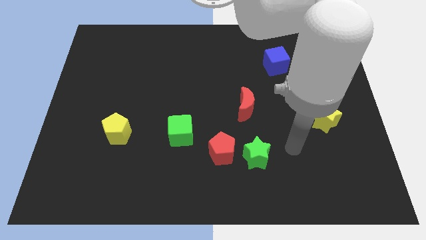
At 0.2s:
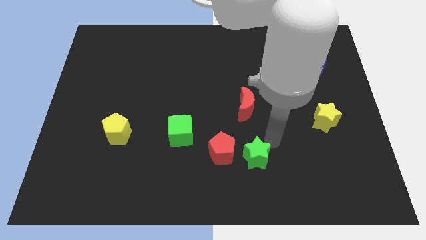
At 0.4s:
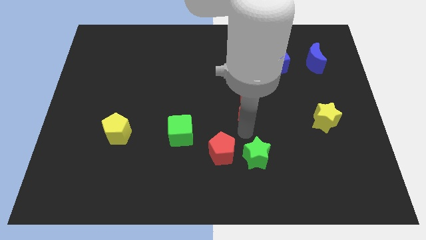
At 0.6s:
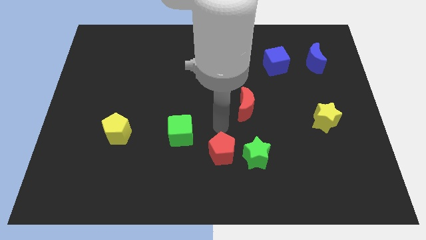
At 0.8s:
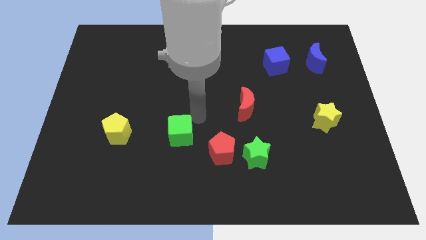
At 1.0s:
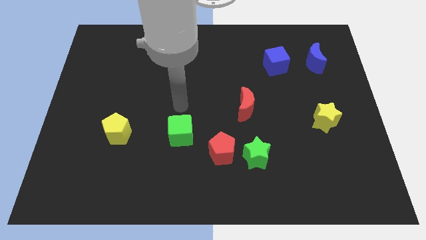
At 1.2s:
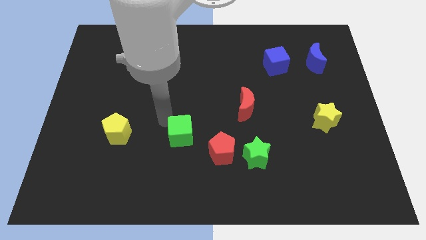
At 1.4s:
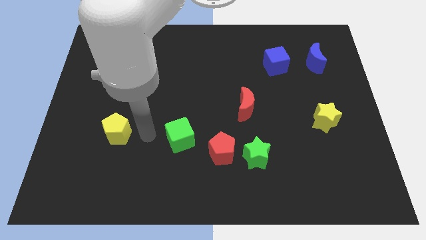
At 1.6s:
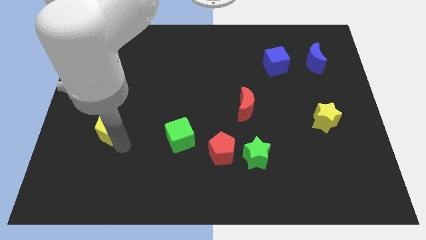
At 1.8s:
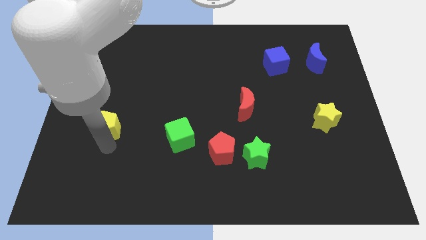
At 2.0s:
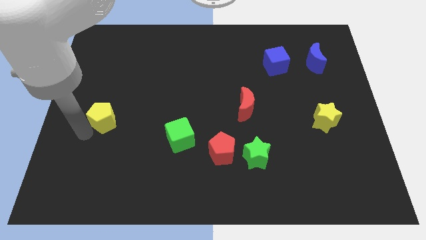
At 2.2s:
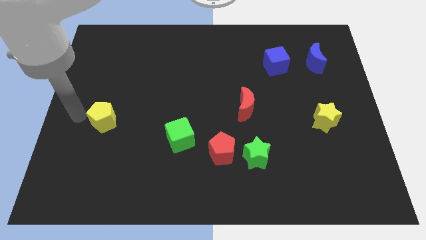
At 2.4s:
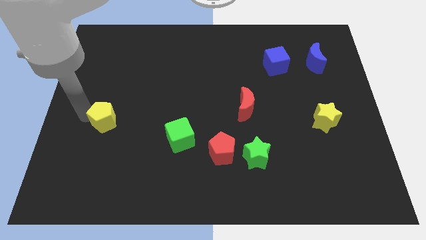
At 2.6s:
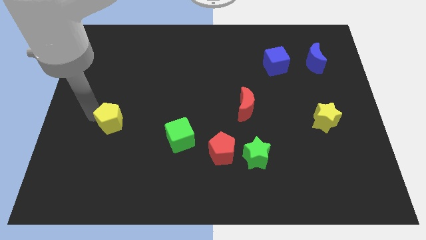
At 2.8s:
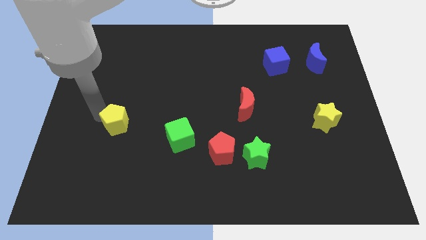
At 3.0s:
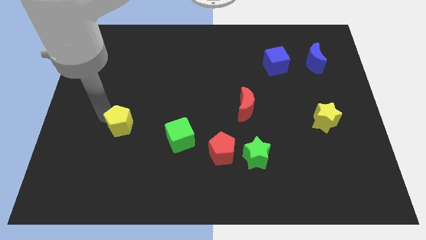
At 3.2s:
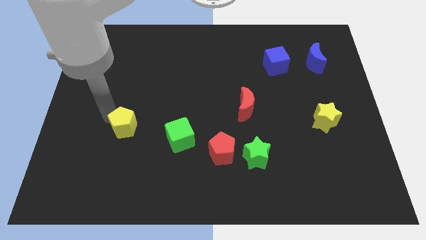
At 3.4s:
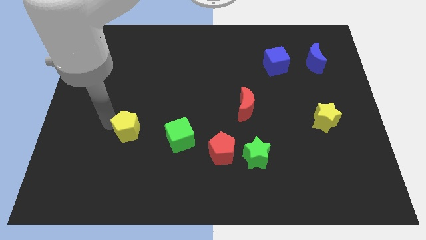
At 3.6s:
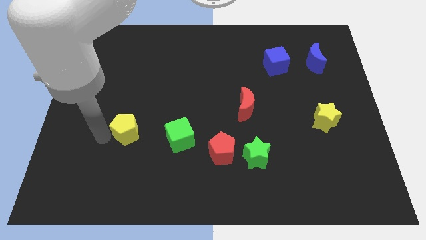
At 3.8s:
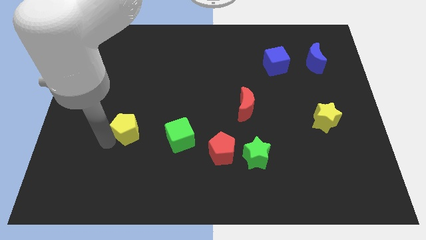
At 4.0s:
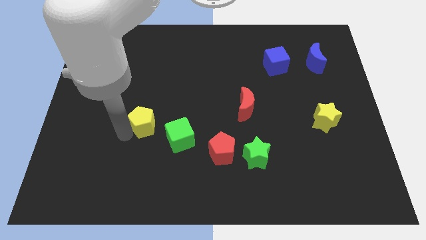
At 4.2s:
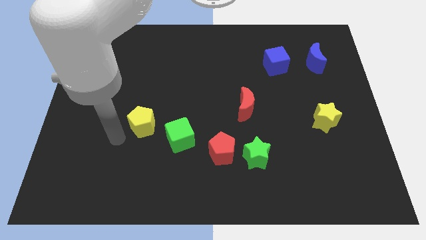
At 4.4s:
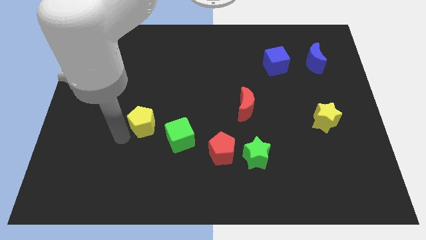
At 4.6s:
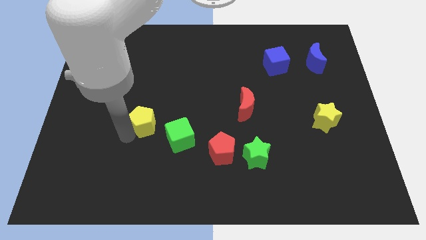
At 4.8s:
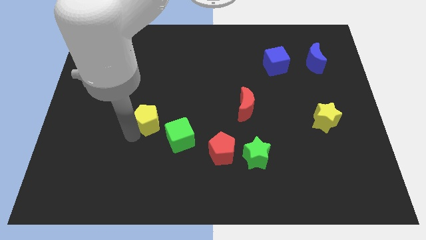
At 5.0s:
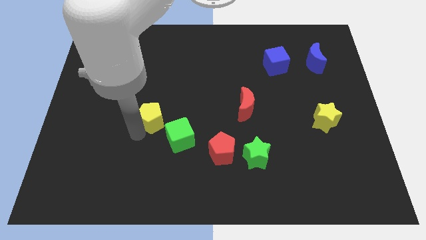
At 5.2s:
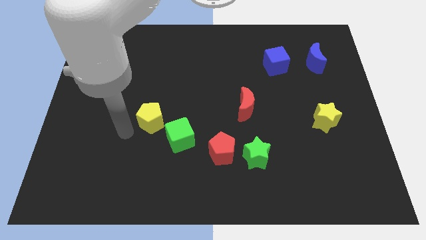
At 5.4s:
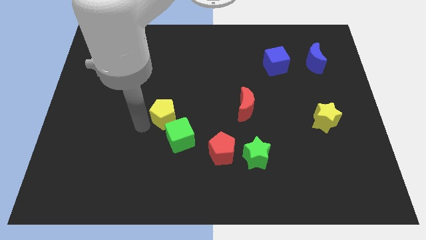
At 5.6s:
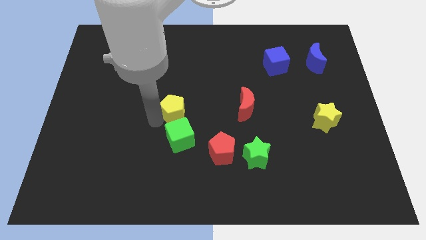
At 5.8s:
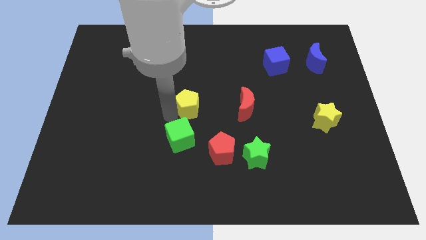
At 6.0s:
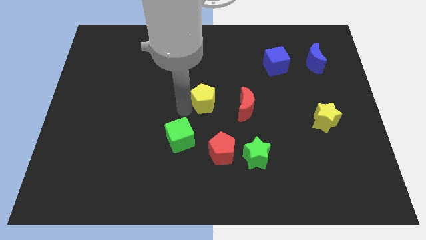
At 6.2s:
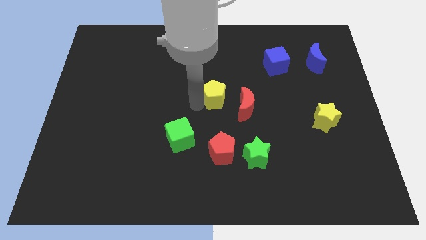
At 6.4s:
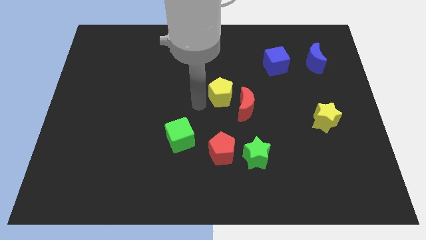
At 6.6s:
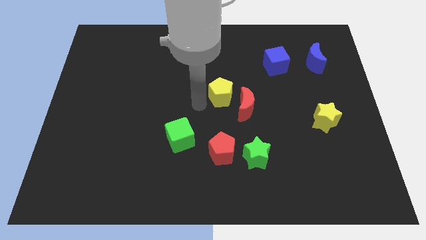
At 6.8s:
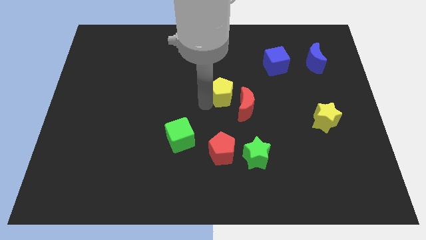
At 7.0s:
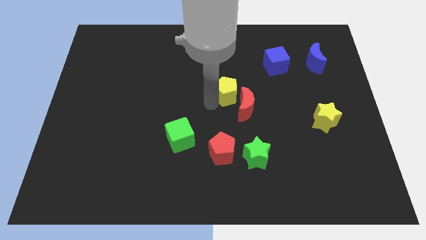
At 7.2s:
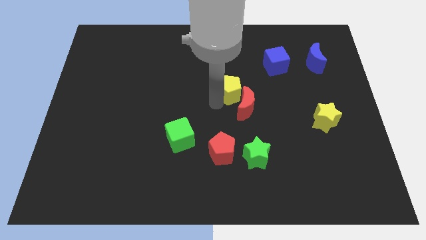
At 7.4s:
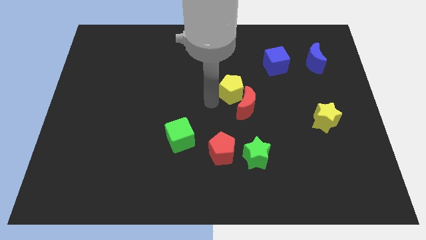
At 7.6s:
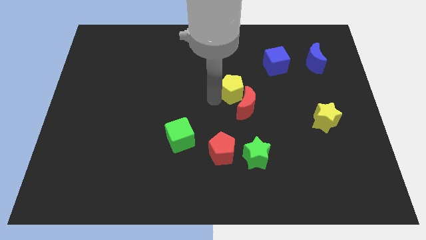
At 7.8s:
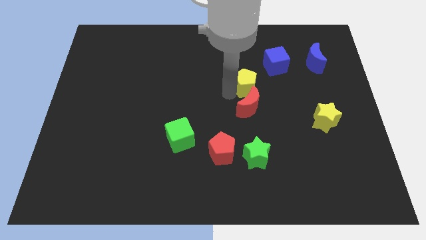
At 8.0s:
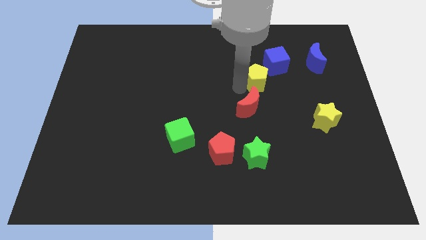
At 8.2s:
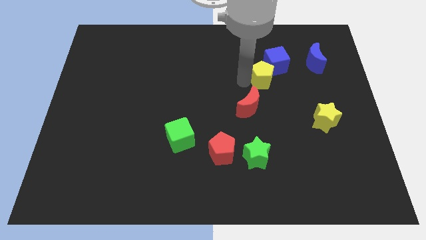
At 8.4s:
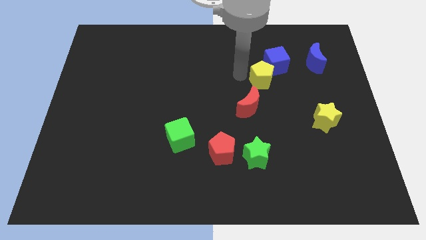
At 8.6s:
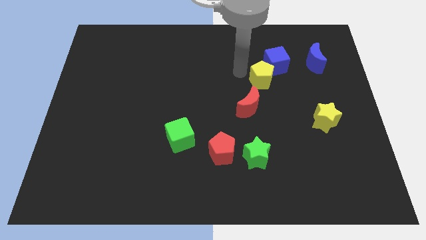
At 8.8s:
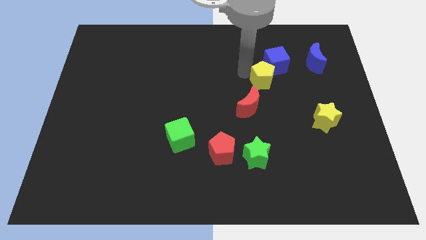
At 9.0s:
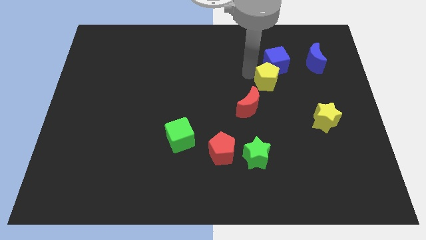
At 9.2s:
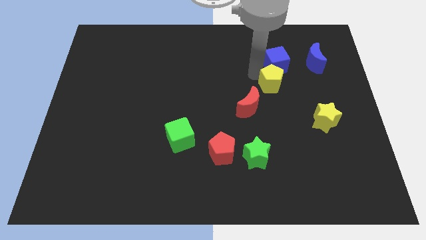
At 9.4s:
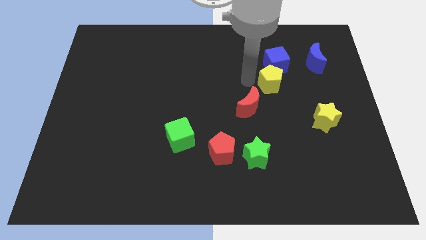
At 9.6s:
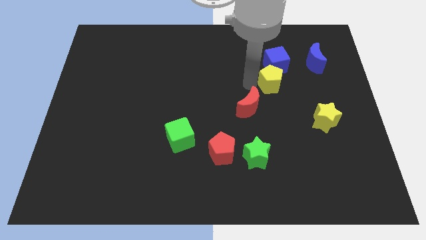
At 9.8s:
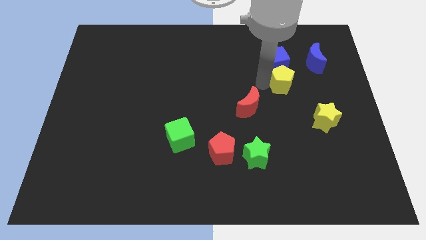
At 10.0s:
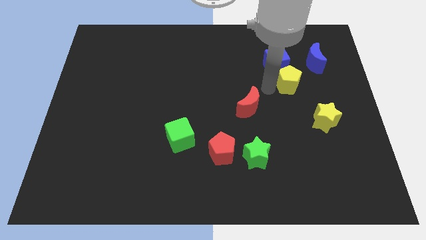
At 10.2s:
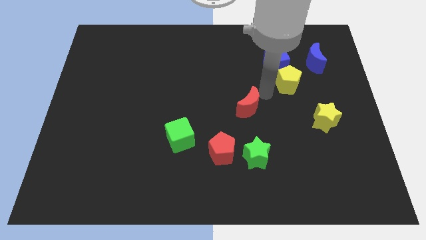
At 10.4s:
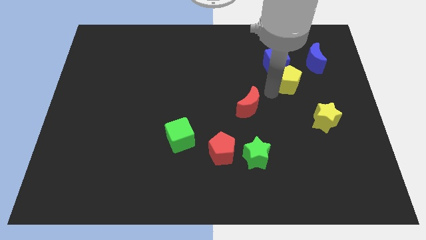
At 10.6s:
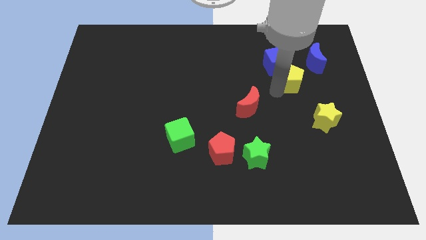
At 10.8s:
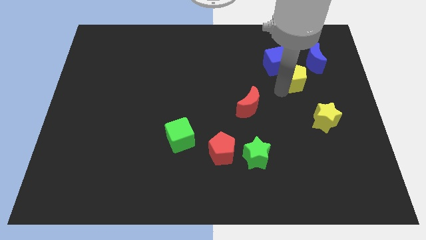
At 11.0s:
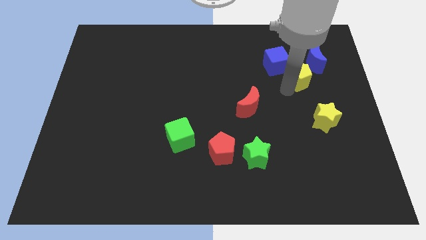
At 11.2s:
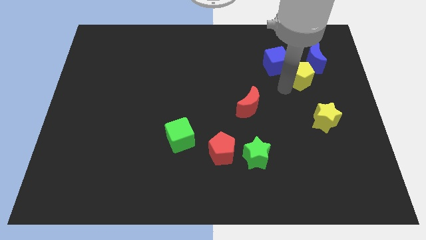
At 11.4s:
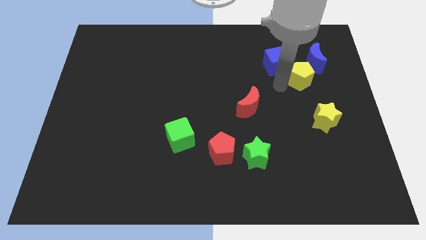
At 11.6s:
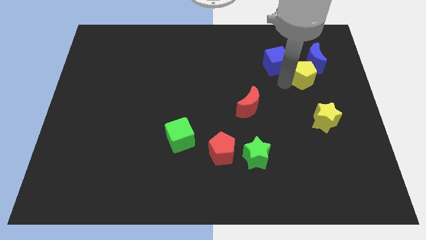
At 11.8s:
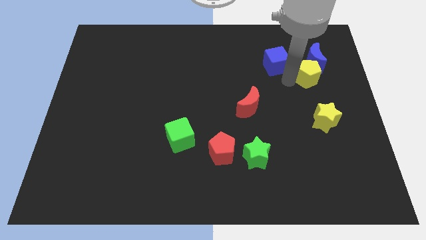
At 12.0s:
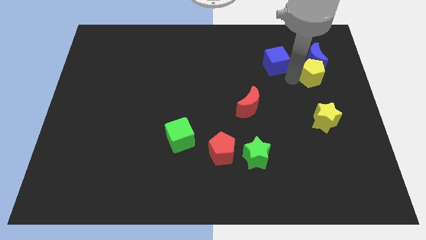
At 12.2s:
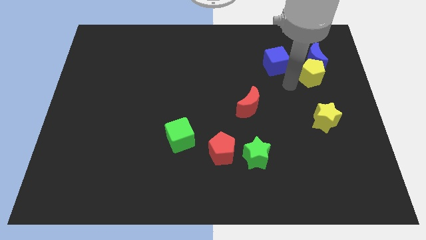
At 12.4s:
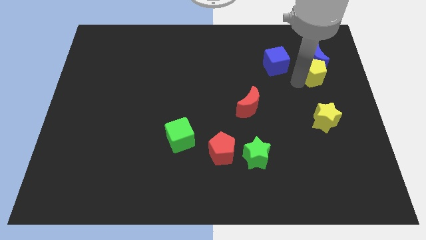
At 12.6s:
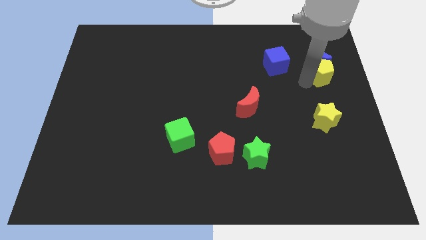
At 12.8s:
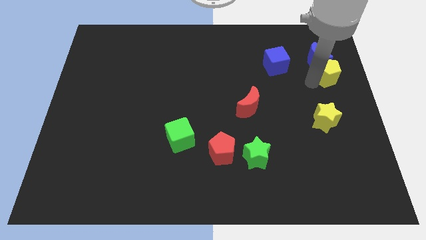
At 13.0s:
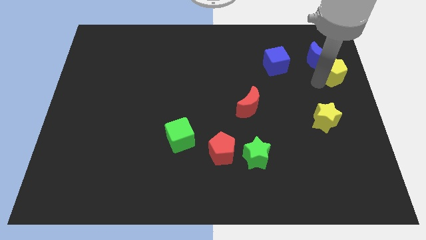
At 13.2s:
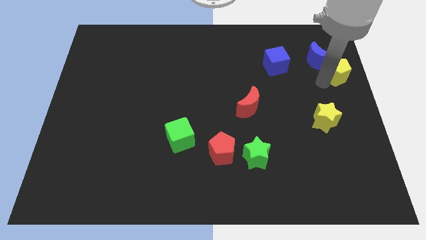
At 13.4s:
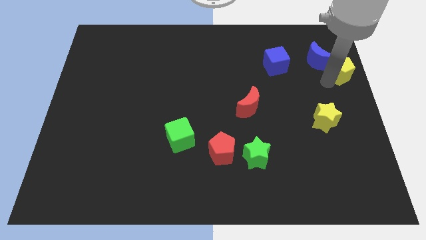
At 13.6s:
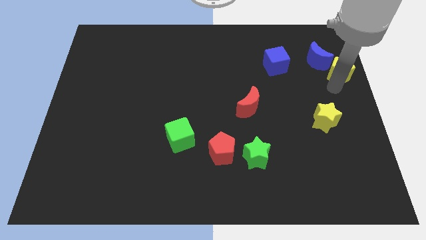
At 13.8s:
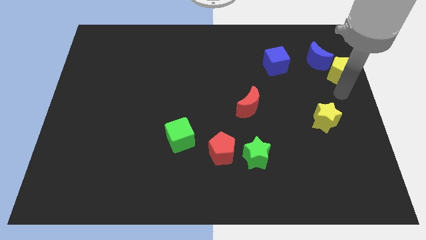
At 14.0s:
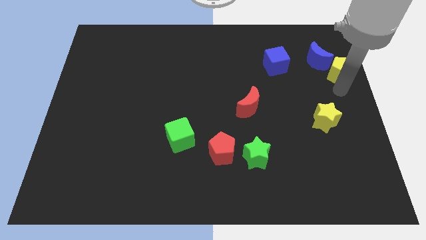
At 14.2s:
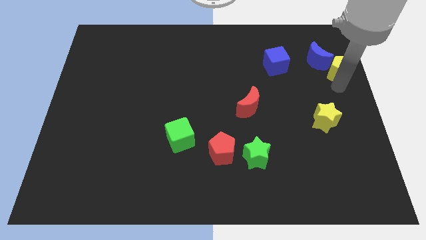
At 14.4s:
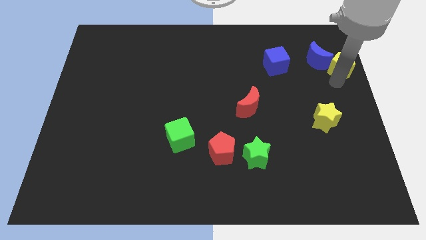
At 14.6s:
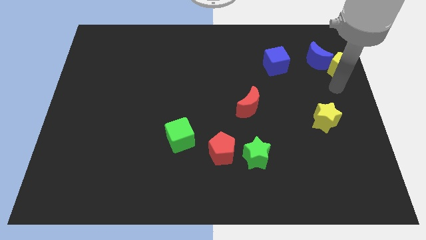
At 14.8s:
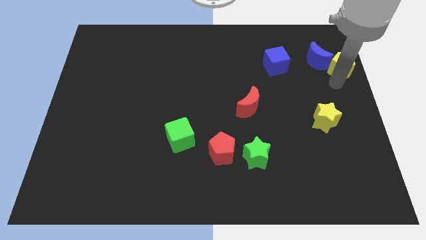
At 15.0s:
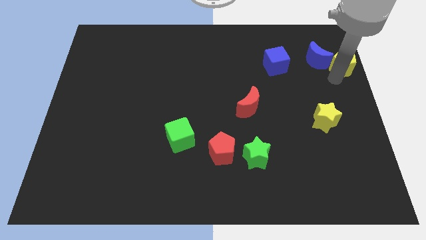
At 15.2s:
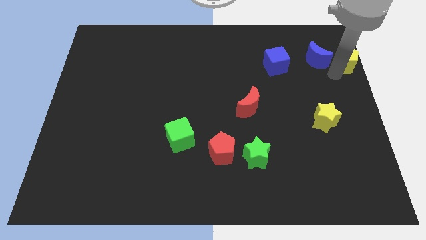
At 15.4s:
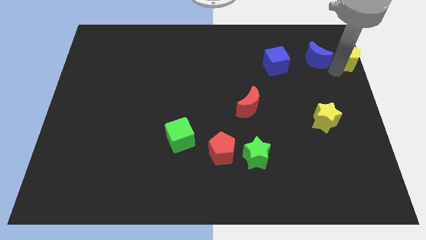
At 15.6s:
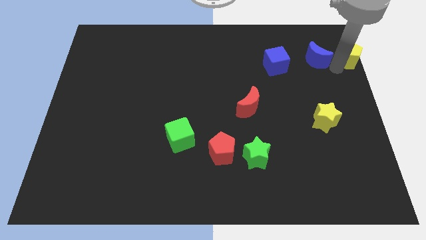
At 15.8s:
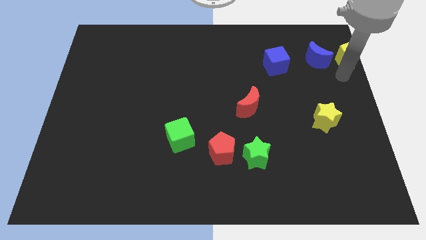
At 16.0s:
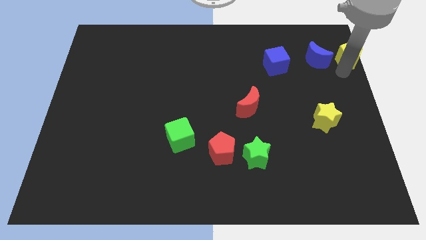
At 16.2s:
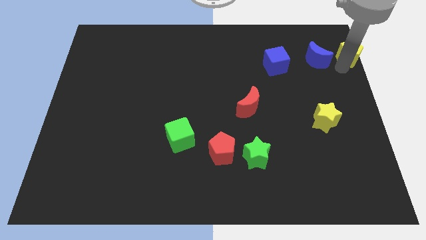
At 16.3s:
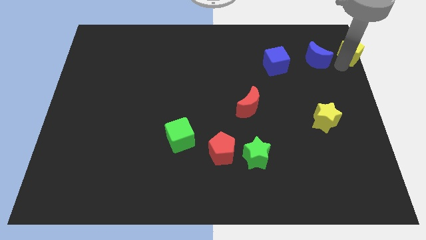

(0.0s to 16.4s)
move the yellow pentagon to the upper right corner
